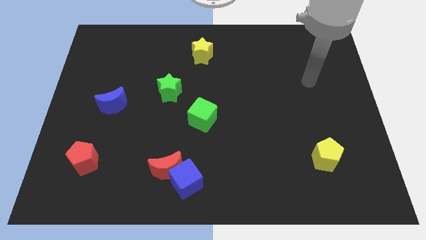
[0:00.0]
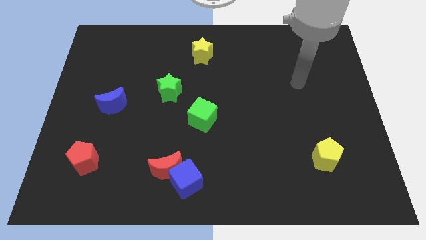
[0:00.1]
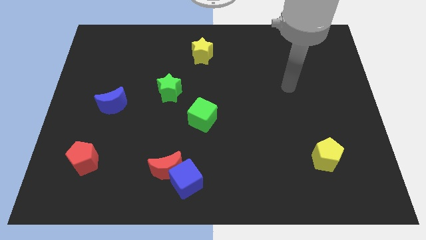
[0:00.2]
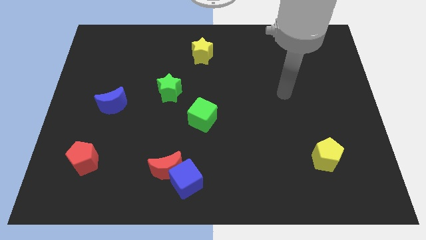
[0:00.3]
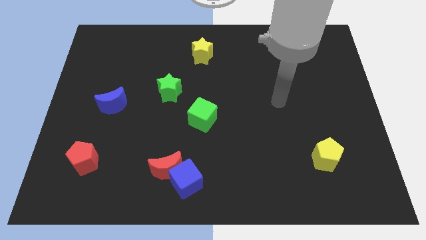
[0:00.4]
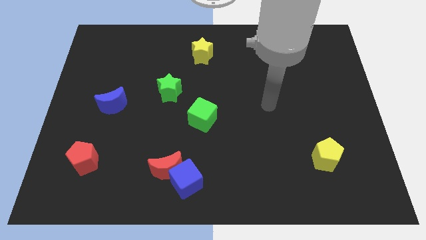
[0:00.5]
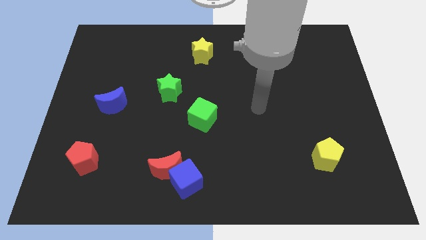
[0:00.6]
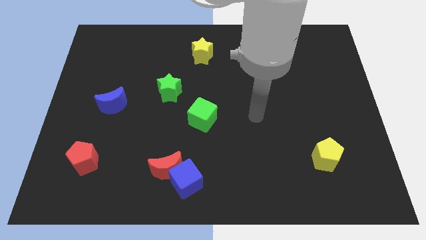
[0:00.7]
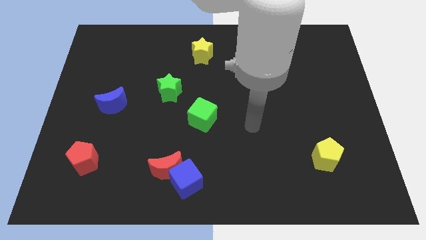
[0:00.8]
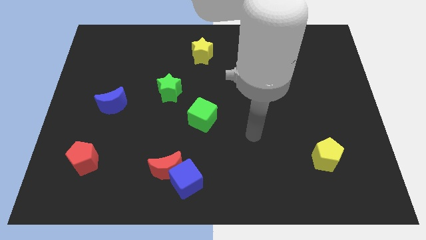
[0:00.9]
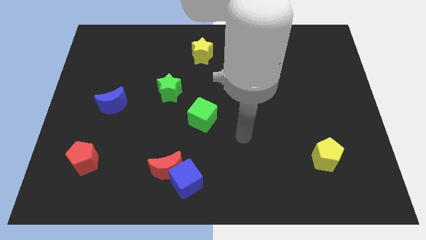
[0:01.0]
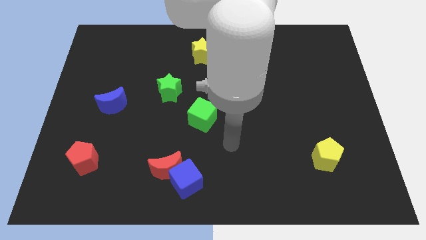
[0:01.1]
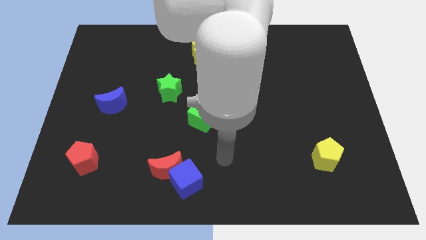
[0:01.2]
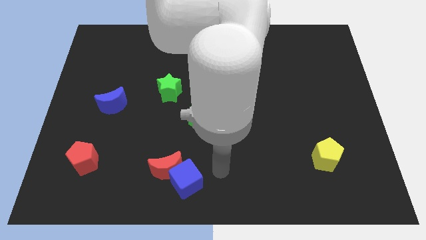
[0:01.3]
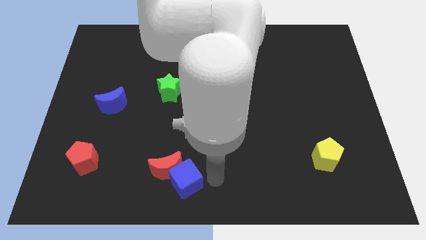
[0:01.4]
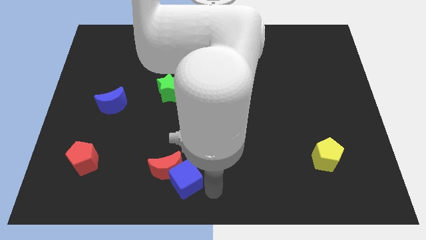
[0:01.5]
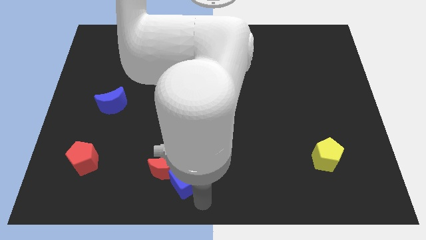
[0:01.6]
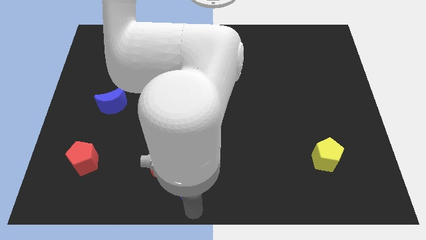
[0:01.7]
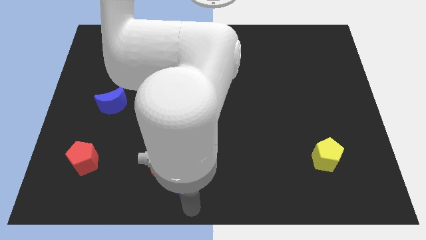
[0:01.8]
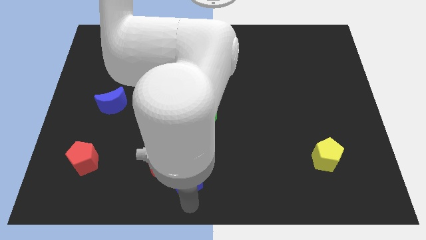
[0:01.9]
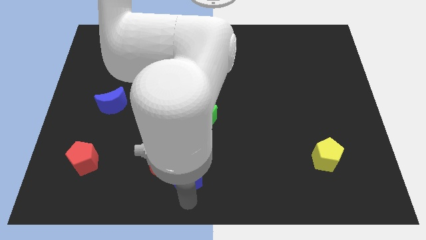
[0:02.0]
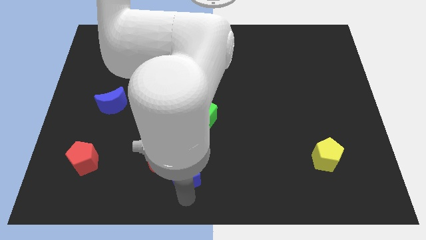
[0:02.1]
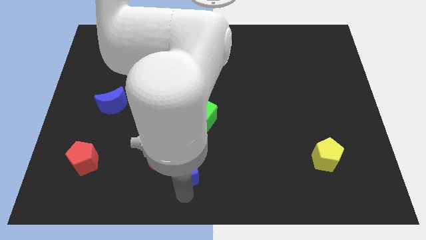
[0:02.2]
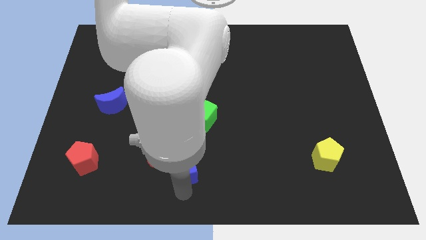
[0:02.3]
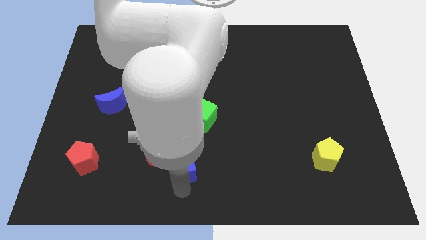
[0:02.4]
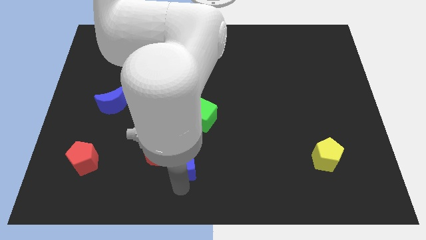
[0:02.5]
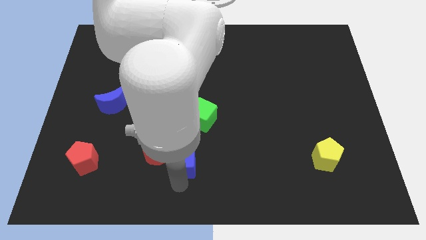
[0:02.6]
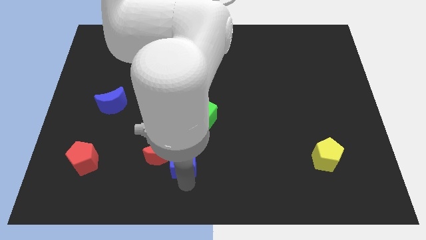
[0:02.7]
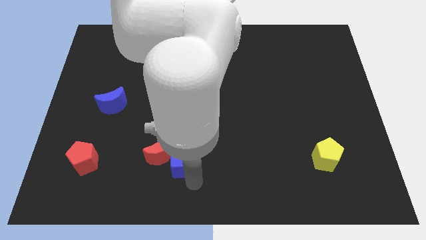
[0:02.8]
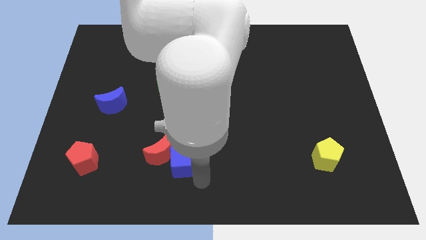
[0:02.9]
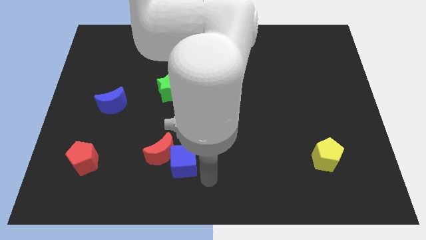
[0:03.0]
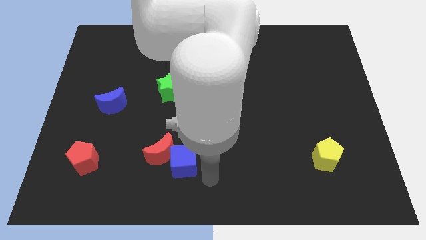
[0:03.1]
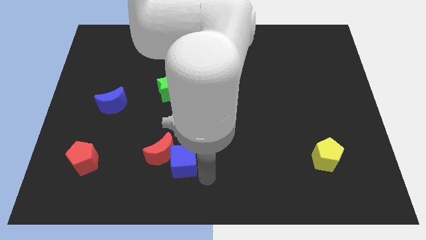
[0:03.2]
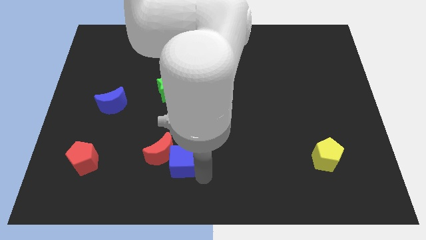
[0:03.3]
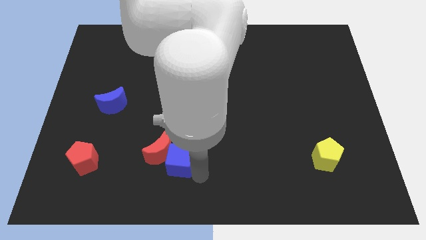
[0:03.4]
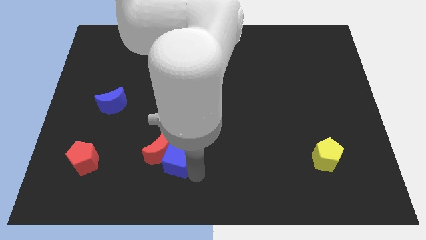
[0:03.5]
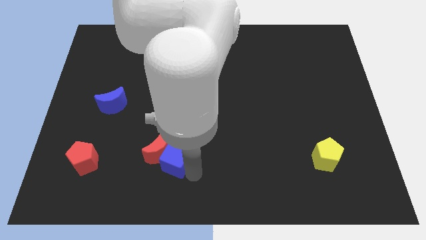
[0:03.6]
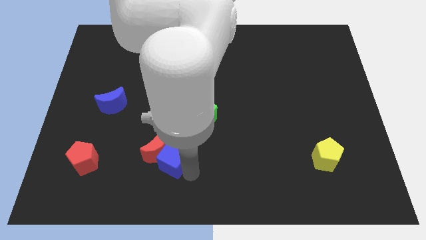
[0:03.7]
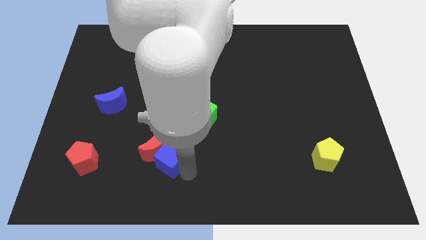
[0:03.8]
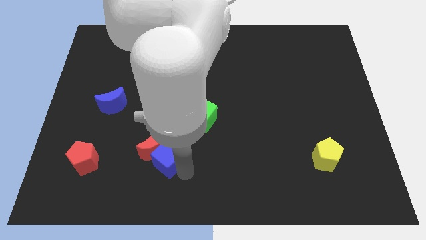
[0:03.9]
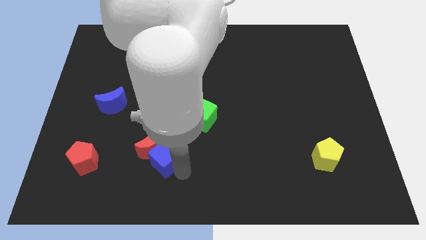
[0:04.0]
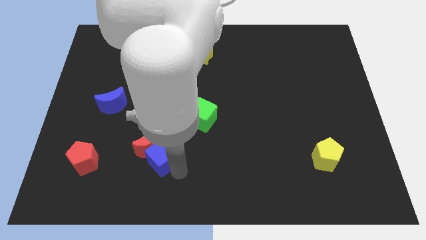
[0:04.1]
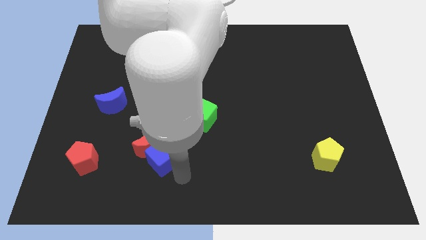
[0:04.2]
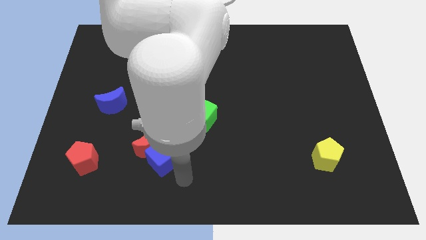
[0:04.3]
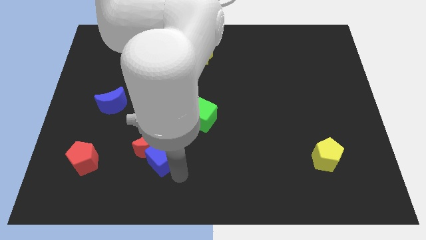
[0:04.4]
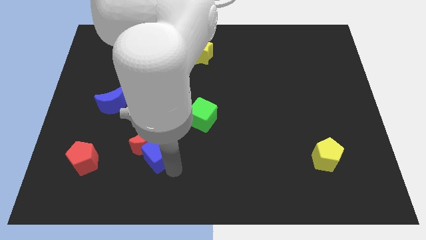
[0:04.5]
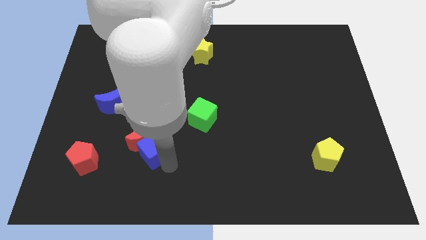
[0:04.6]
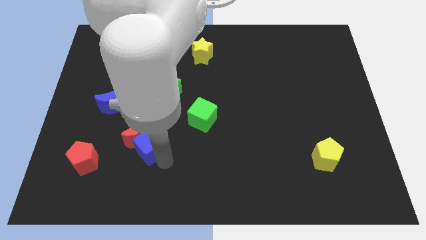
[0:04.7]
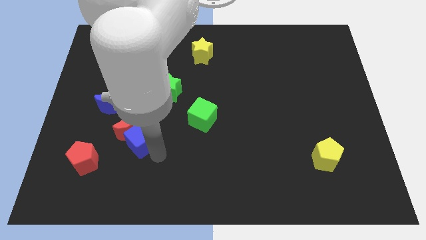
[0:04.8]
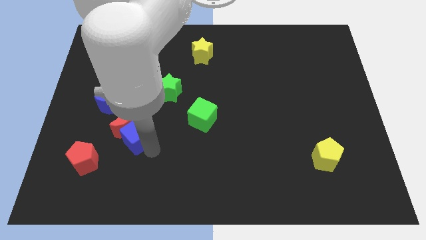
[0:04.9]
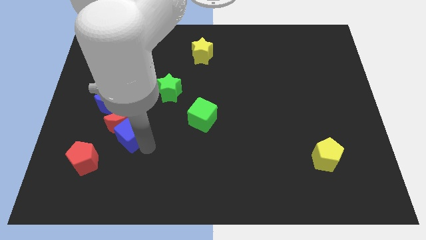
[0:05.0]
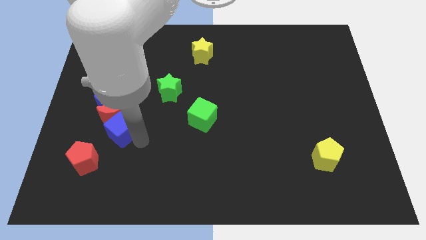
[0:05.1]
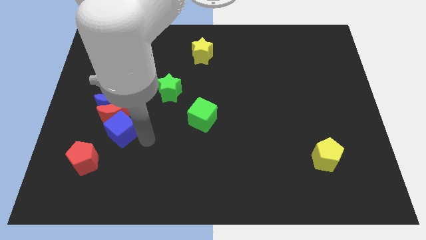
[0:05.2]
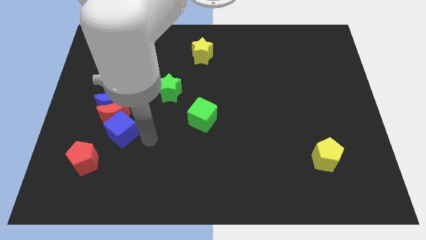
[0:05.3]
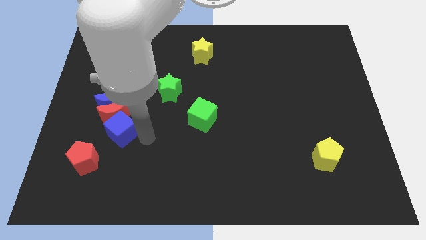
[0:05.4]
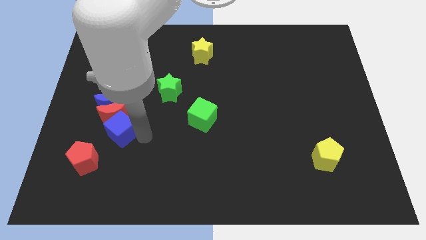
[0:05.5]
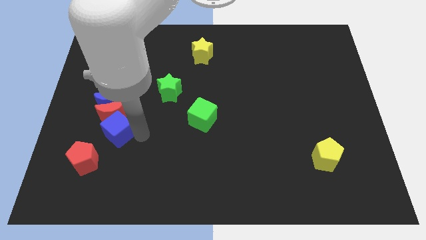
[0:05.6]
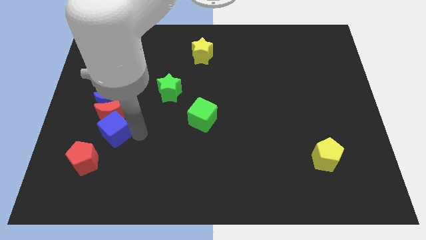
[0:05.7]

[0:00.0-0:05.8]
push the blue cube up and then to the left

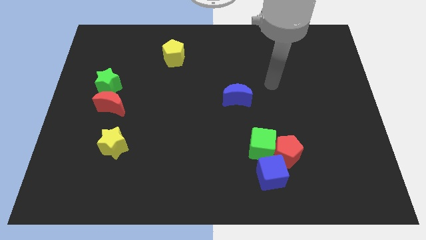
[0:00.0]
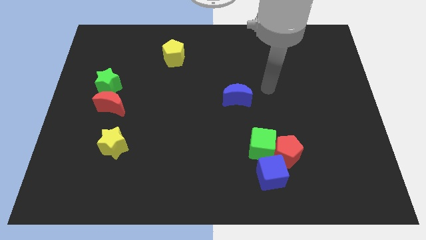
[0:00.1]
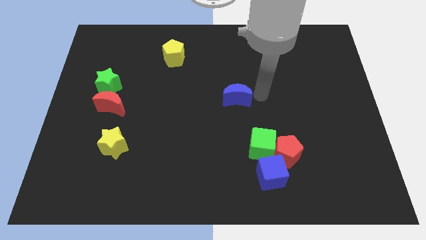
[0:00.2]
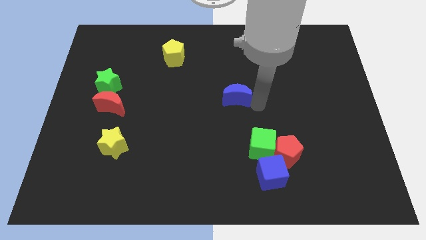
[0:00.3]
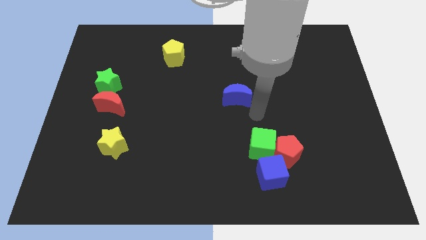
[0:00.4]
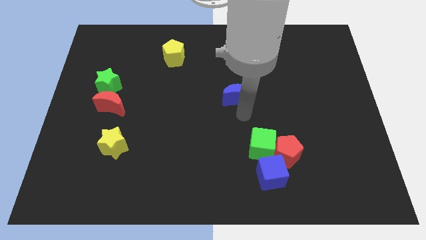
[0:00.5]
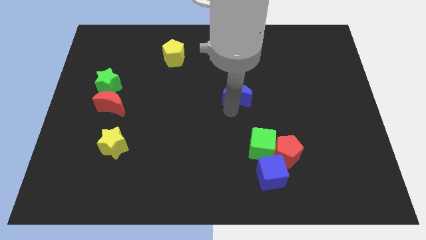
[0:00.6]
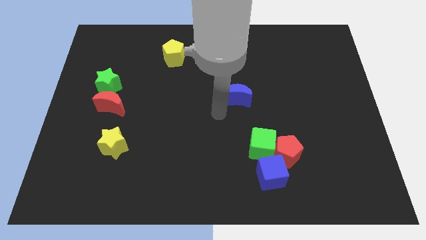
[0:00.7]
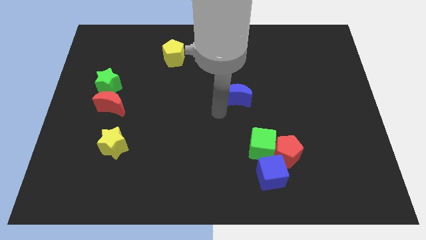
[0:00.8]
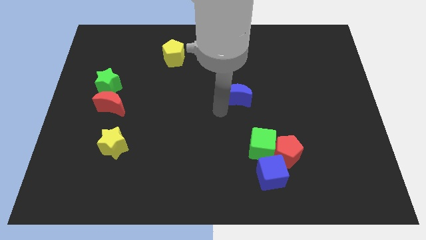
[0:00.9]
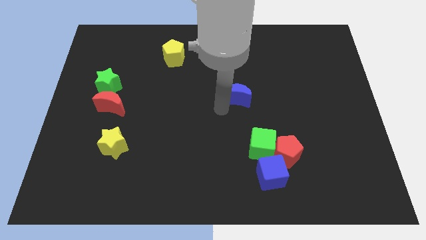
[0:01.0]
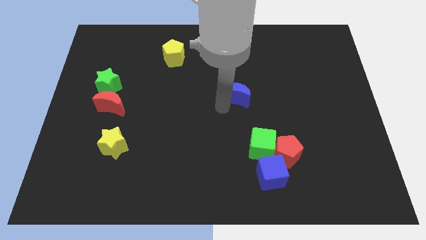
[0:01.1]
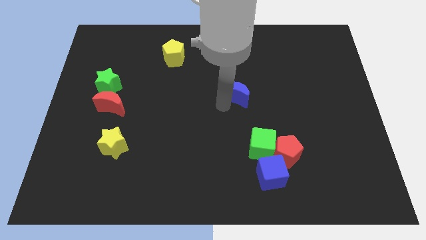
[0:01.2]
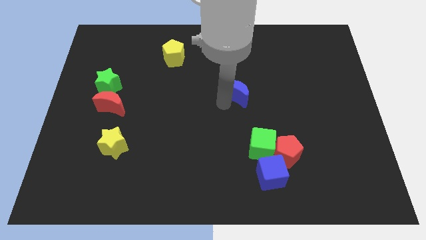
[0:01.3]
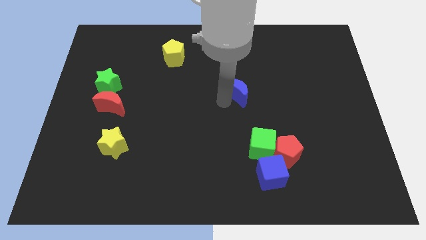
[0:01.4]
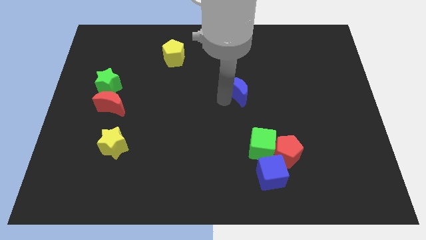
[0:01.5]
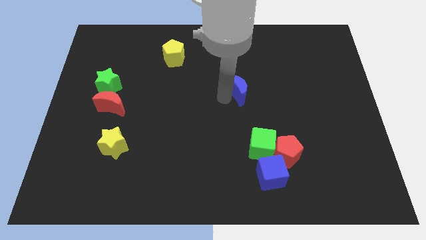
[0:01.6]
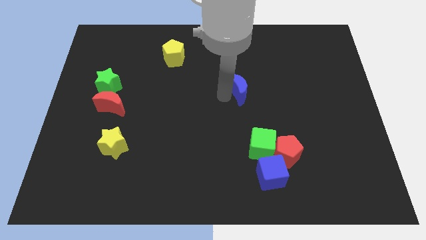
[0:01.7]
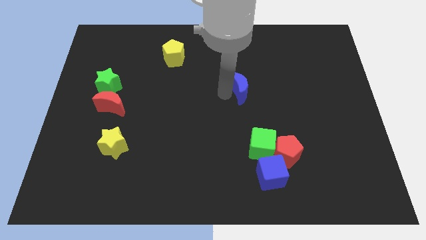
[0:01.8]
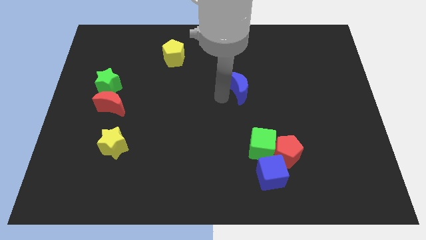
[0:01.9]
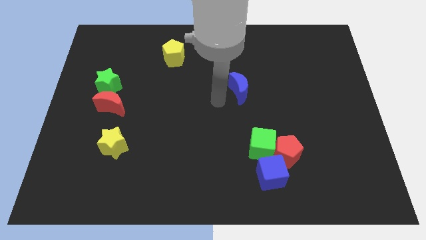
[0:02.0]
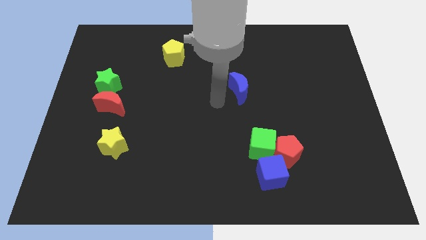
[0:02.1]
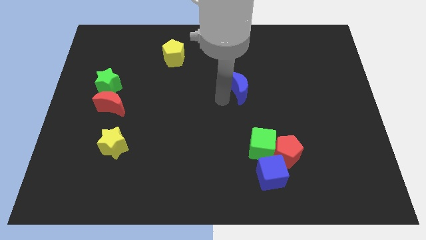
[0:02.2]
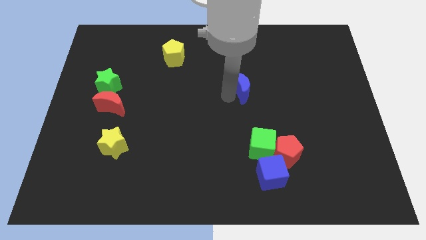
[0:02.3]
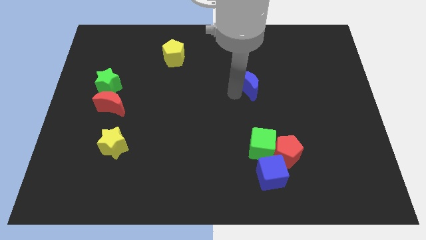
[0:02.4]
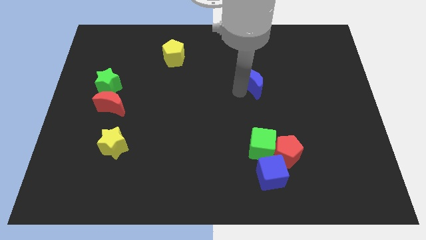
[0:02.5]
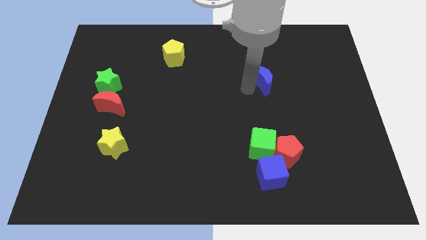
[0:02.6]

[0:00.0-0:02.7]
push the blue moon a little upwards and then to the right
